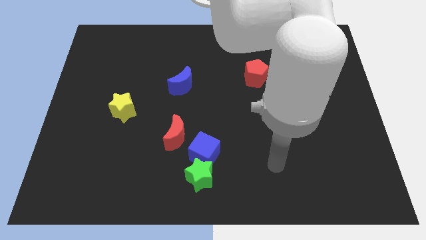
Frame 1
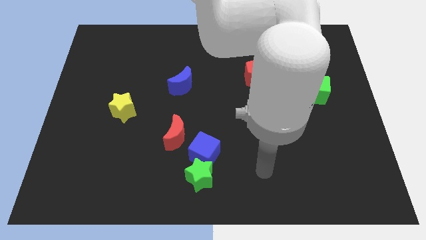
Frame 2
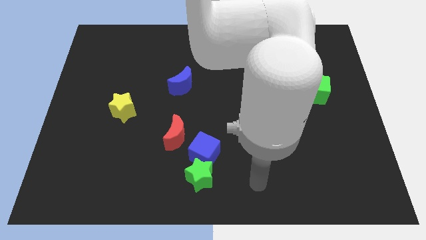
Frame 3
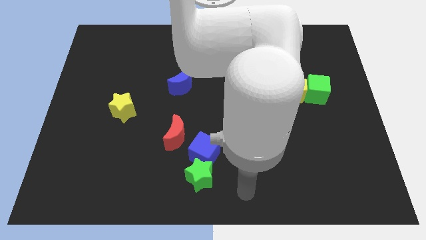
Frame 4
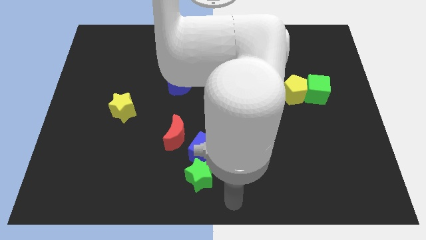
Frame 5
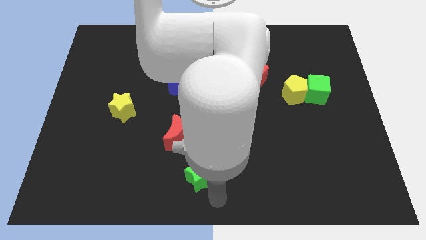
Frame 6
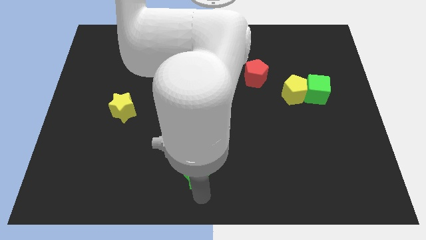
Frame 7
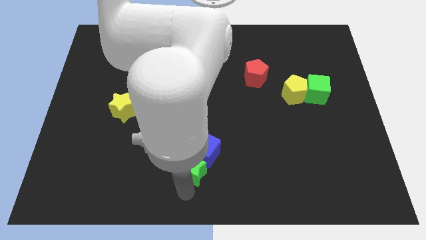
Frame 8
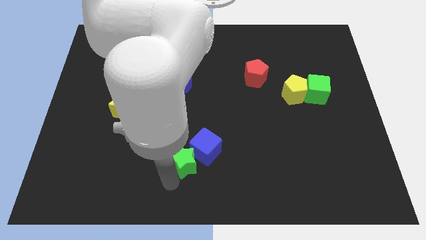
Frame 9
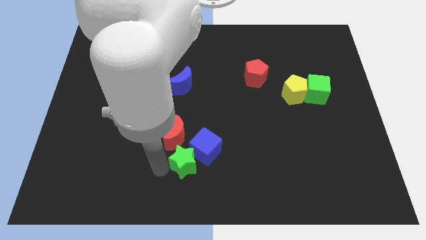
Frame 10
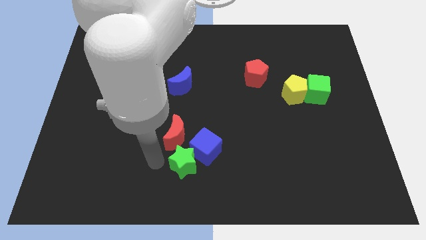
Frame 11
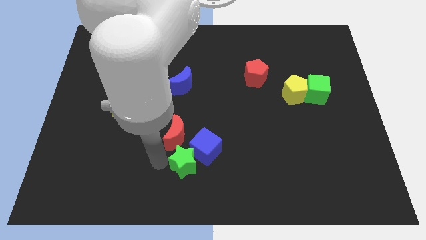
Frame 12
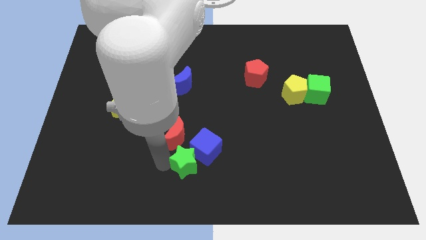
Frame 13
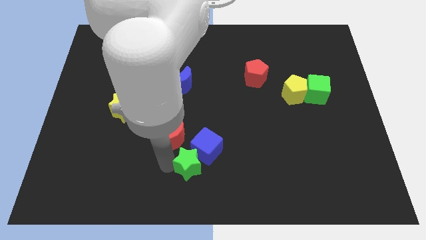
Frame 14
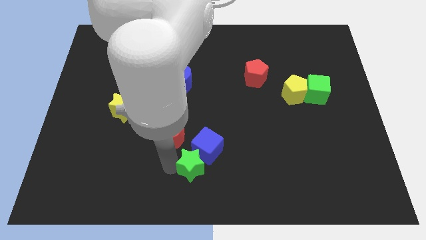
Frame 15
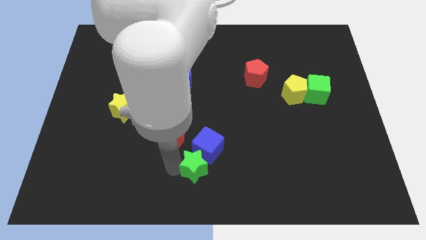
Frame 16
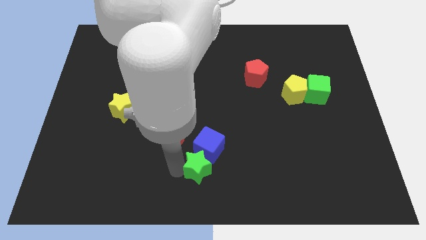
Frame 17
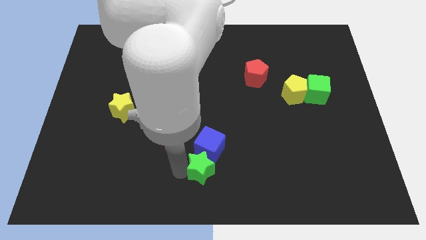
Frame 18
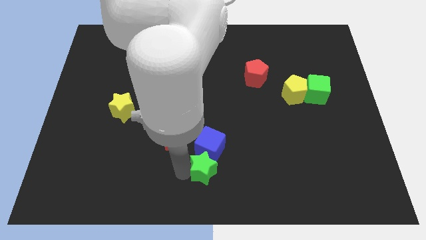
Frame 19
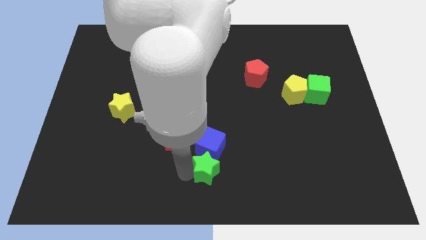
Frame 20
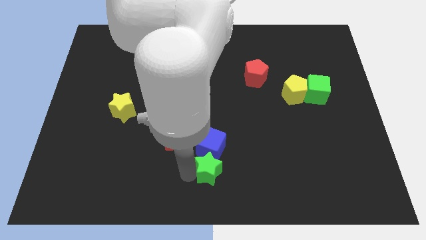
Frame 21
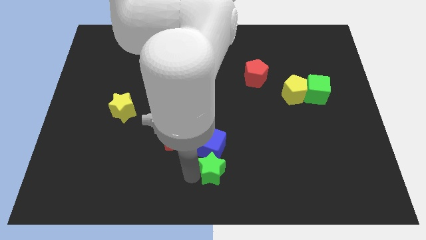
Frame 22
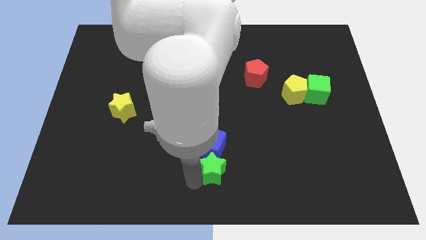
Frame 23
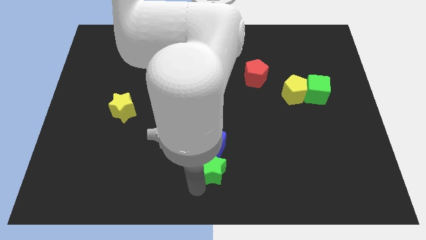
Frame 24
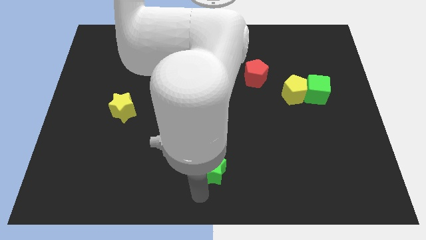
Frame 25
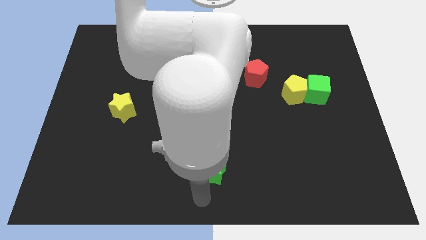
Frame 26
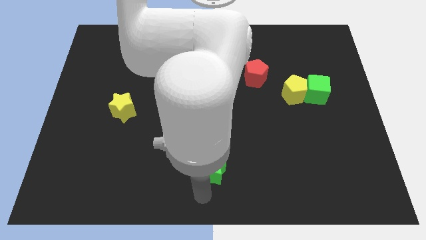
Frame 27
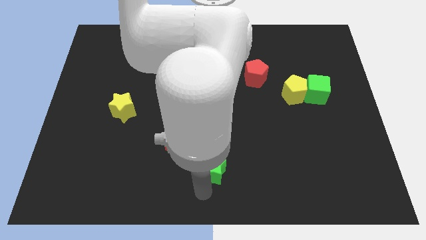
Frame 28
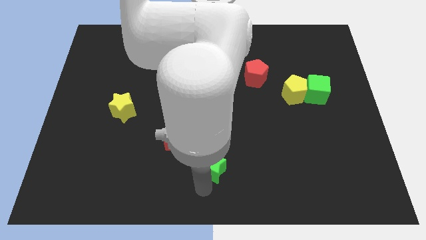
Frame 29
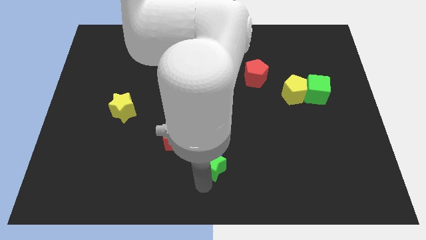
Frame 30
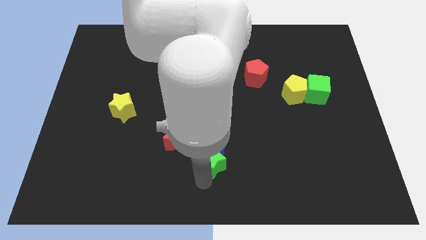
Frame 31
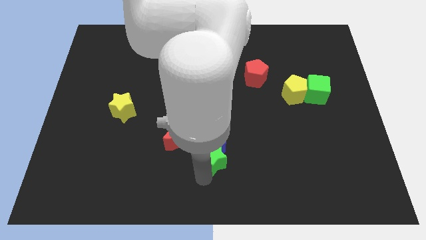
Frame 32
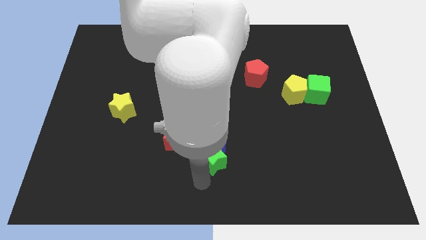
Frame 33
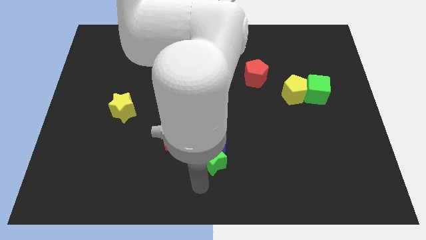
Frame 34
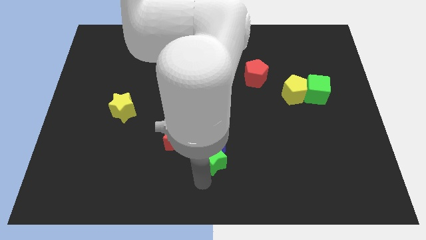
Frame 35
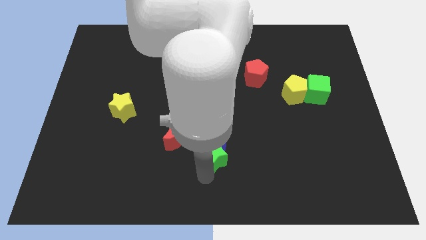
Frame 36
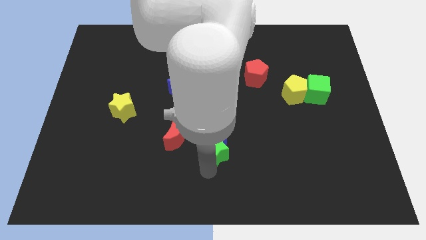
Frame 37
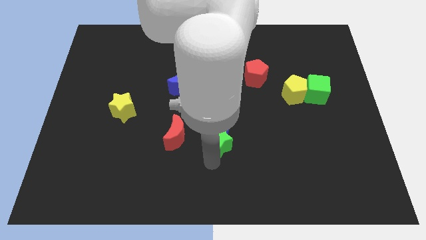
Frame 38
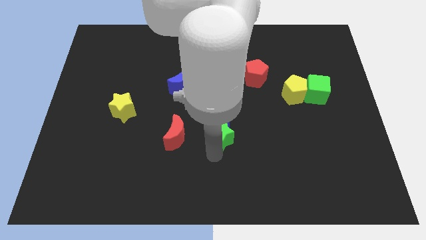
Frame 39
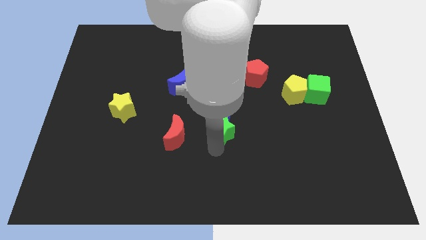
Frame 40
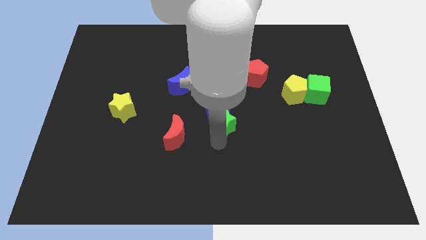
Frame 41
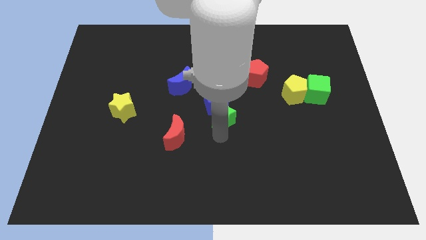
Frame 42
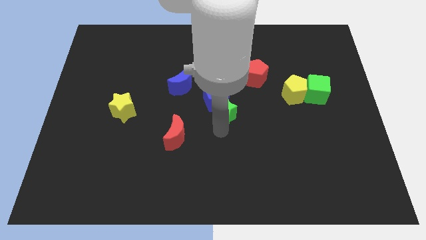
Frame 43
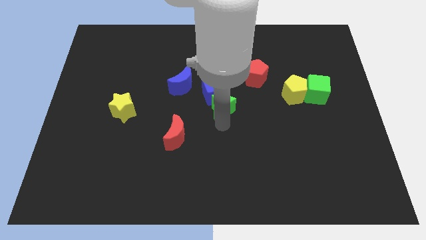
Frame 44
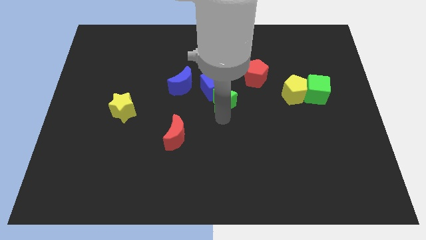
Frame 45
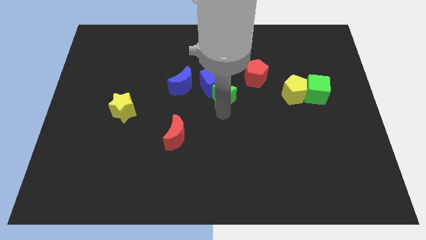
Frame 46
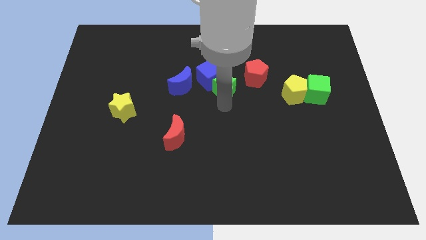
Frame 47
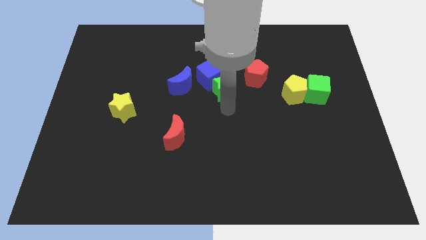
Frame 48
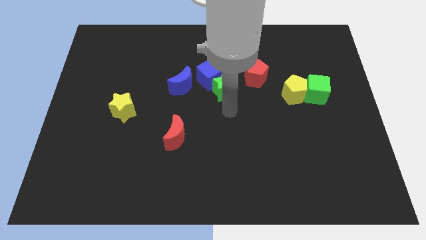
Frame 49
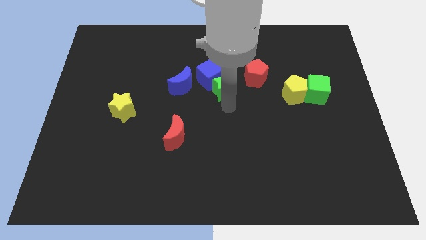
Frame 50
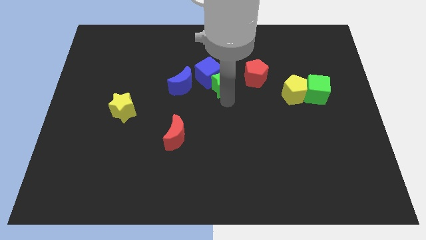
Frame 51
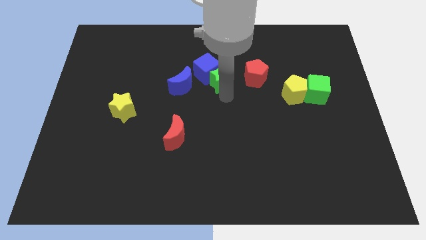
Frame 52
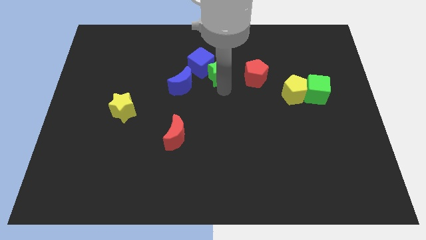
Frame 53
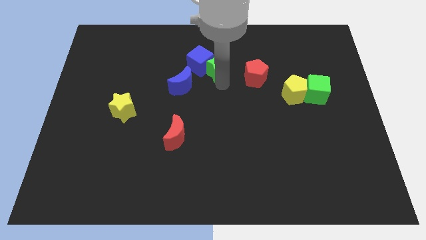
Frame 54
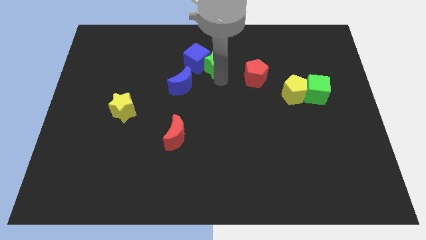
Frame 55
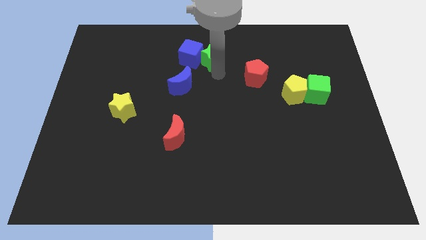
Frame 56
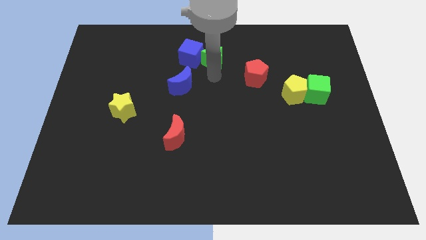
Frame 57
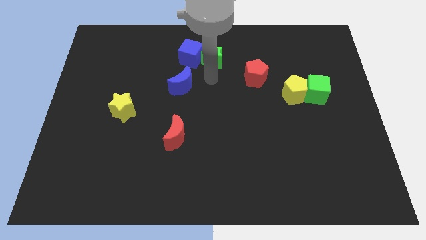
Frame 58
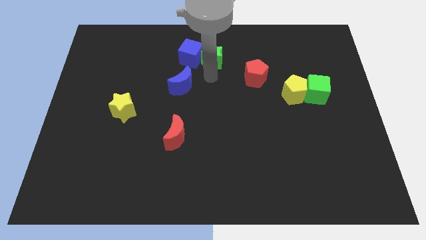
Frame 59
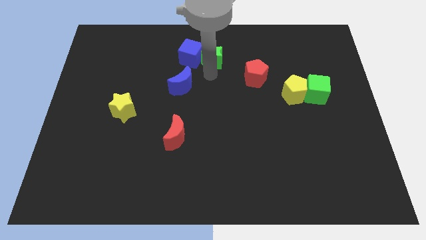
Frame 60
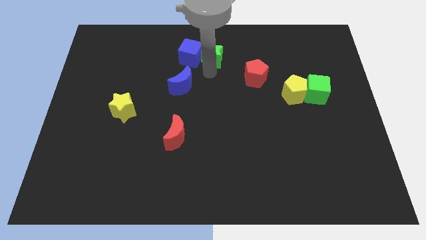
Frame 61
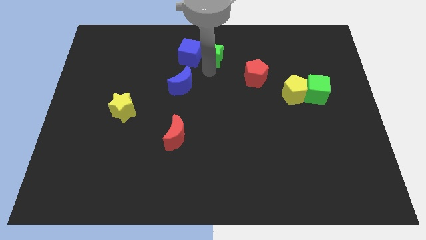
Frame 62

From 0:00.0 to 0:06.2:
move the green star to the towards your base
